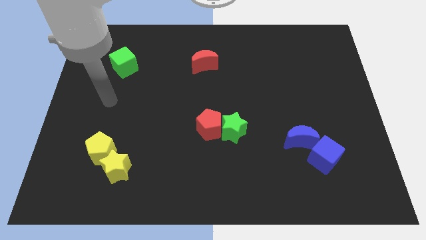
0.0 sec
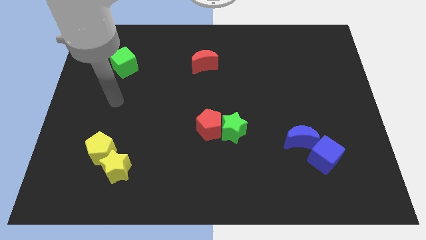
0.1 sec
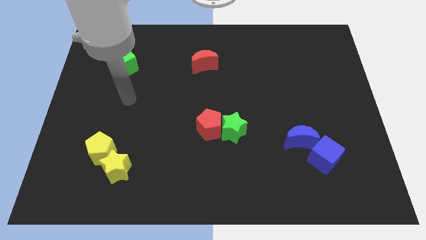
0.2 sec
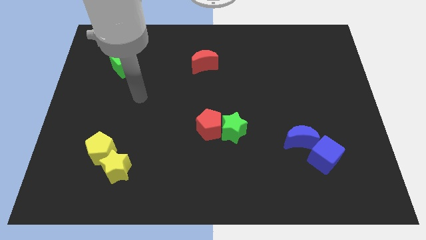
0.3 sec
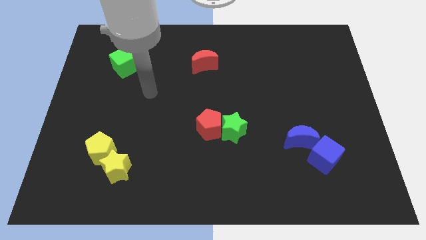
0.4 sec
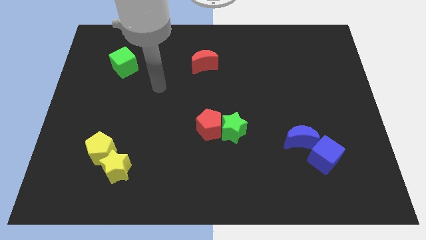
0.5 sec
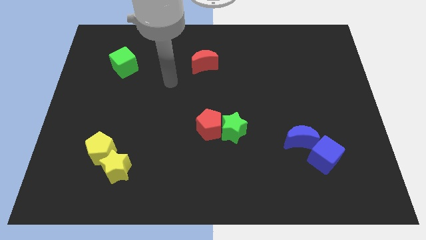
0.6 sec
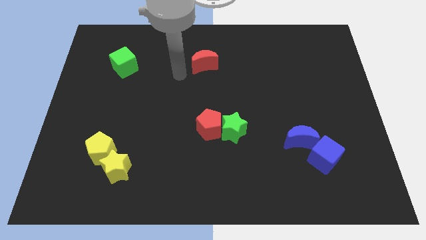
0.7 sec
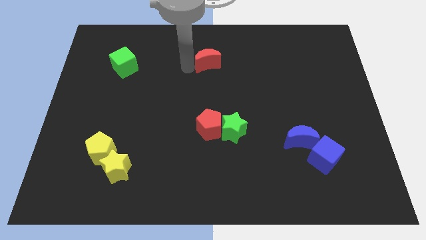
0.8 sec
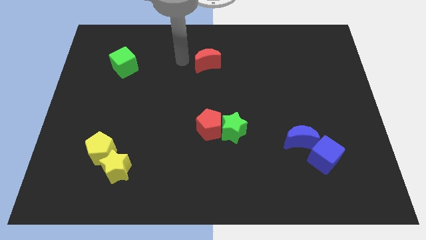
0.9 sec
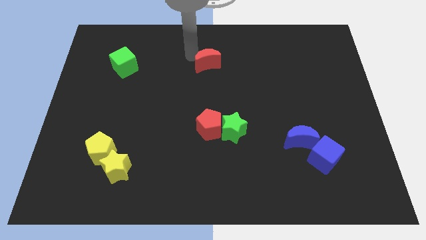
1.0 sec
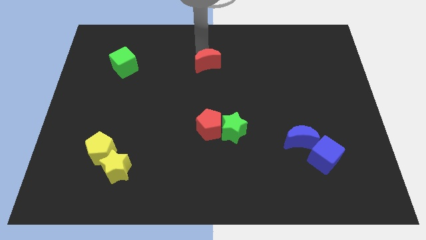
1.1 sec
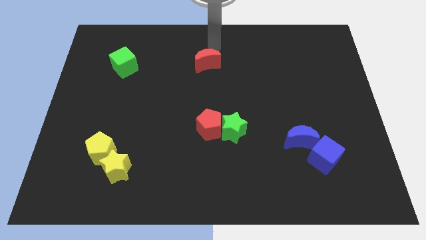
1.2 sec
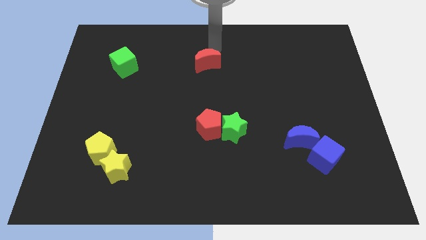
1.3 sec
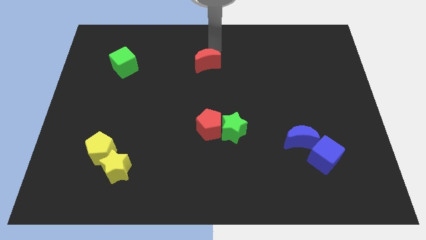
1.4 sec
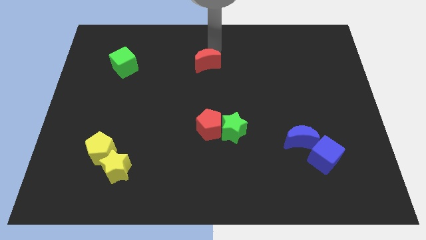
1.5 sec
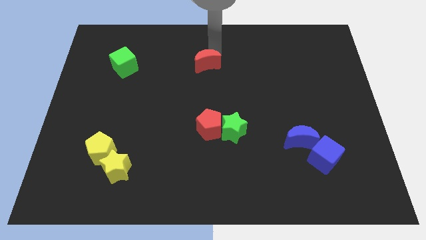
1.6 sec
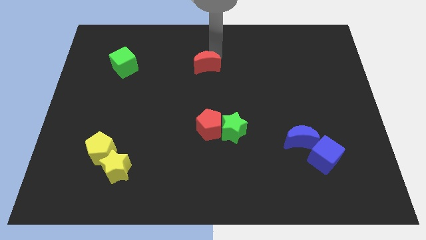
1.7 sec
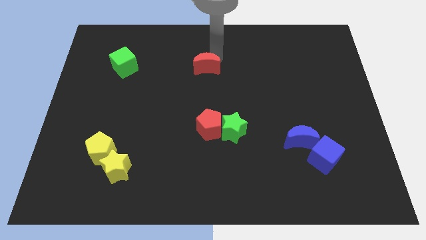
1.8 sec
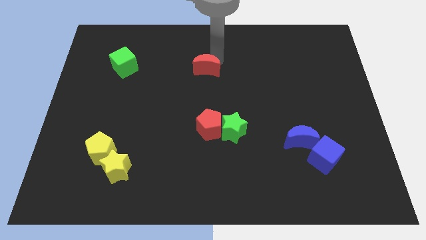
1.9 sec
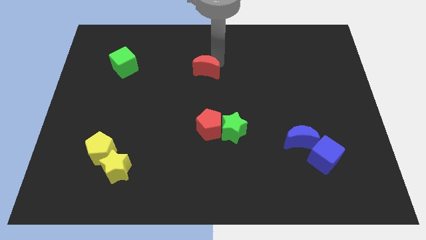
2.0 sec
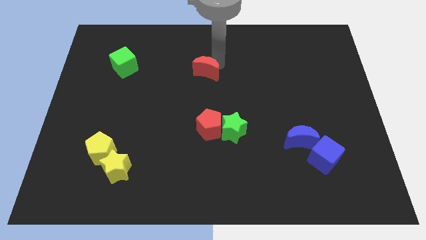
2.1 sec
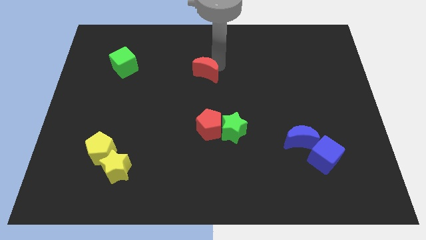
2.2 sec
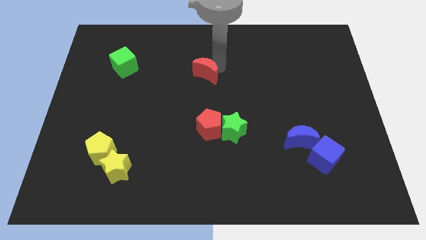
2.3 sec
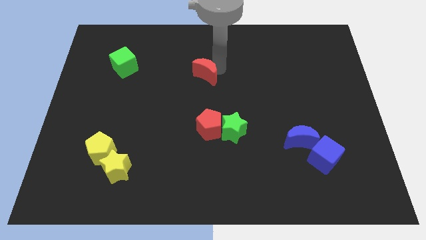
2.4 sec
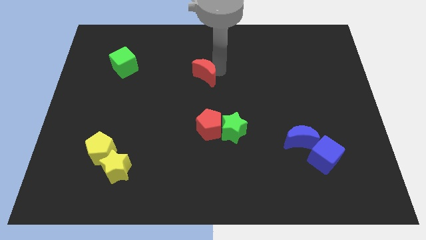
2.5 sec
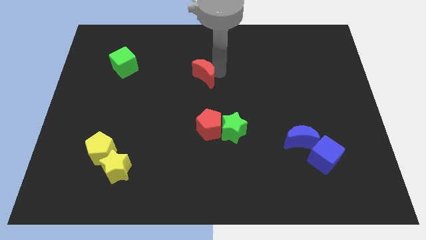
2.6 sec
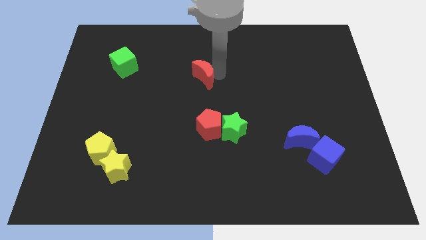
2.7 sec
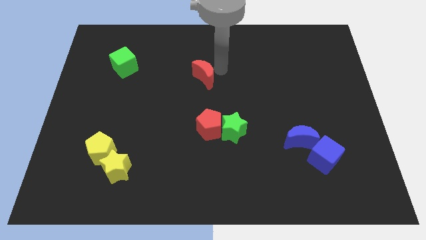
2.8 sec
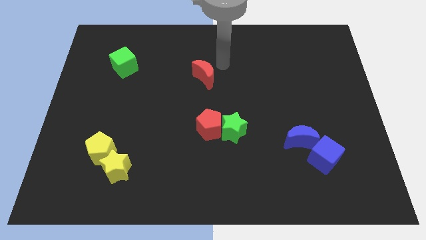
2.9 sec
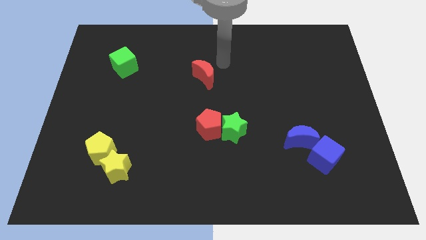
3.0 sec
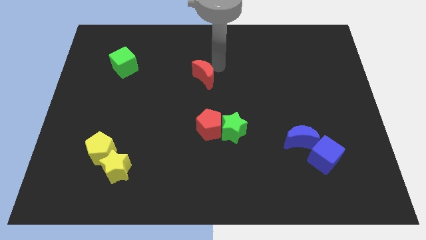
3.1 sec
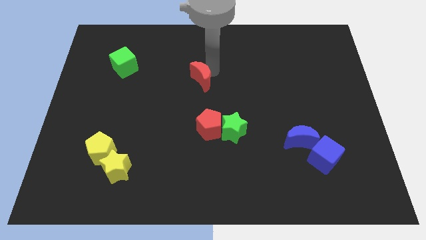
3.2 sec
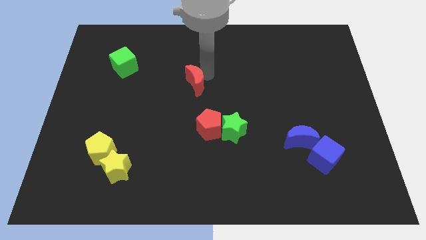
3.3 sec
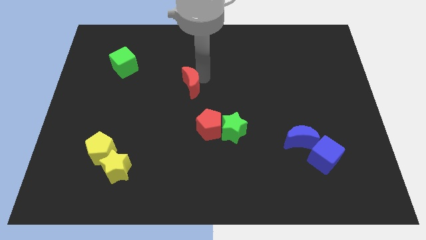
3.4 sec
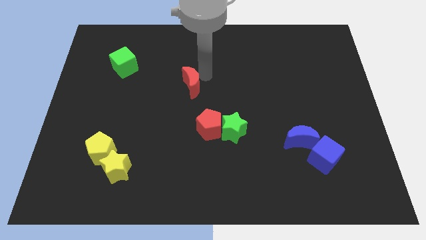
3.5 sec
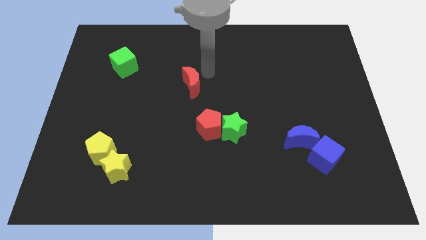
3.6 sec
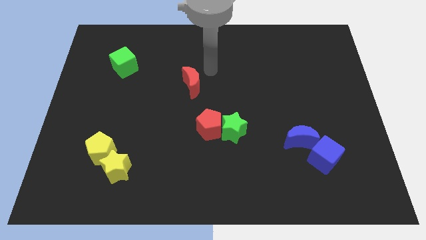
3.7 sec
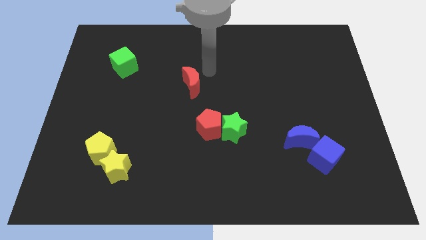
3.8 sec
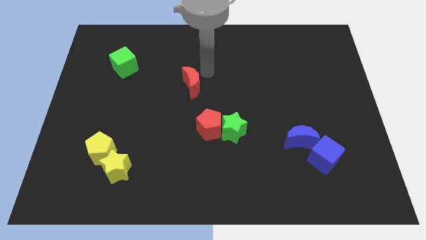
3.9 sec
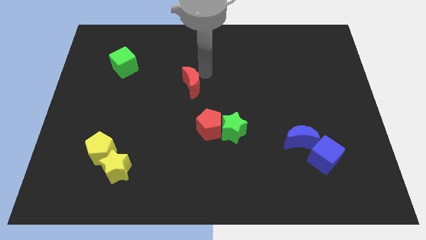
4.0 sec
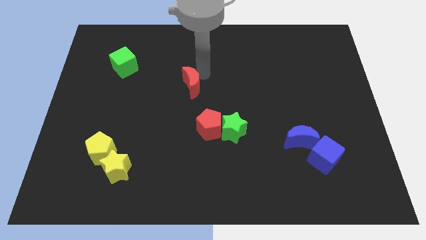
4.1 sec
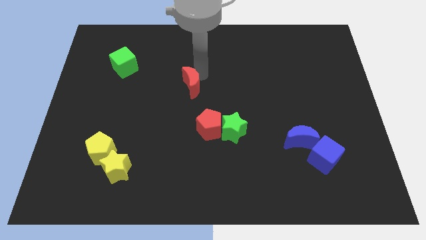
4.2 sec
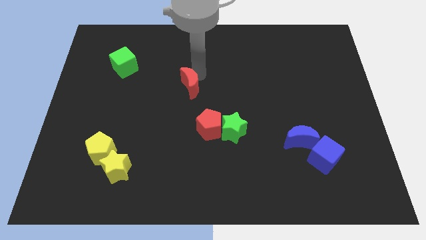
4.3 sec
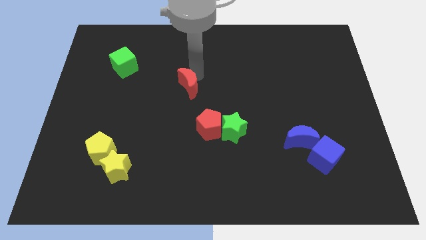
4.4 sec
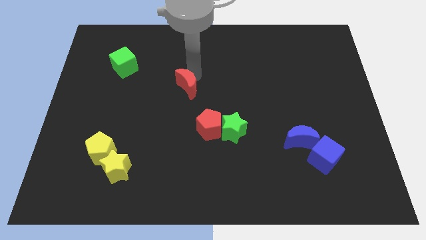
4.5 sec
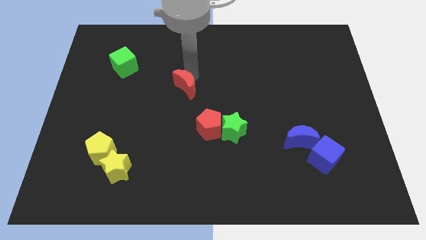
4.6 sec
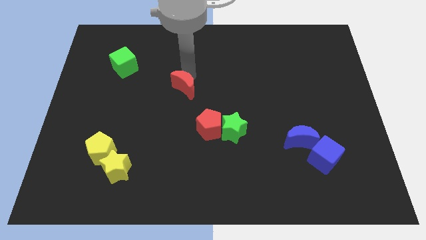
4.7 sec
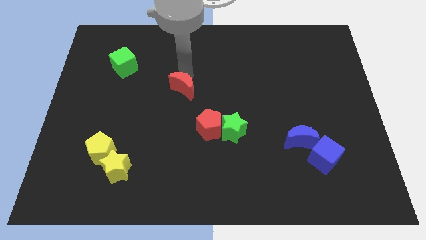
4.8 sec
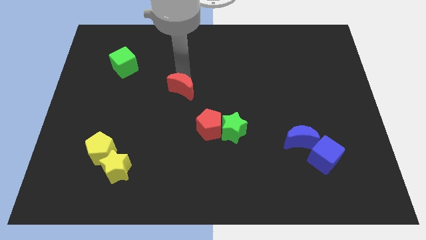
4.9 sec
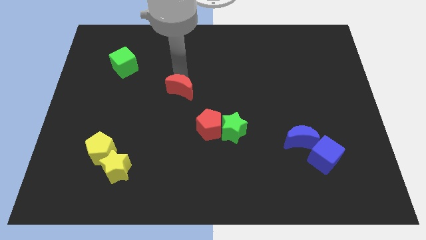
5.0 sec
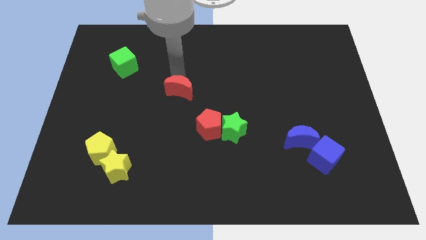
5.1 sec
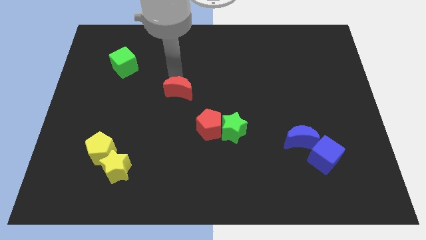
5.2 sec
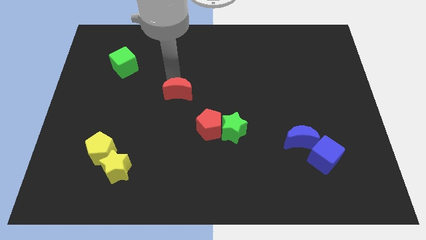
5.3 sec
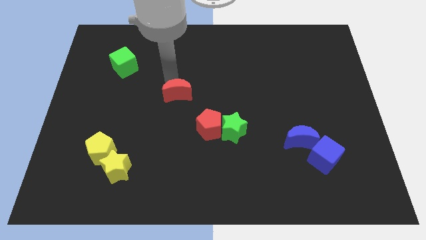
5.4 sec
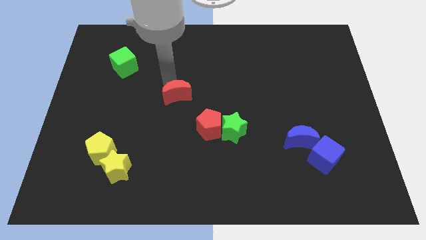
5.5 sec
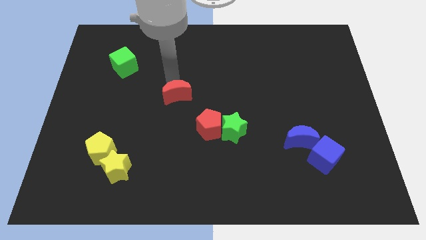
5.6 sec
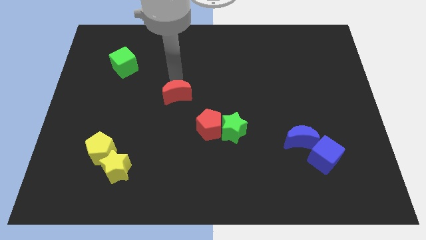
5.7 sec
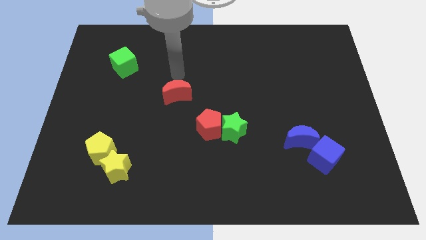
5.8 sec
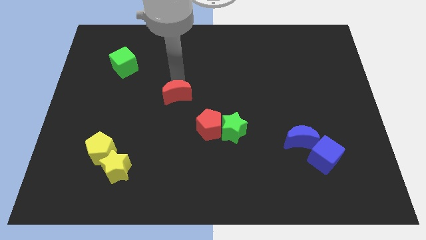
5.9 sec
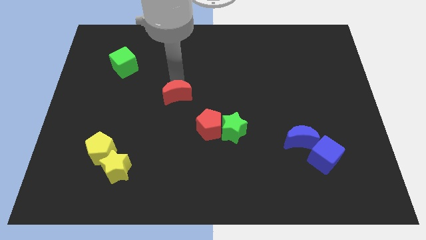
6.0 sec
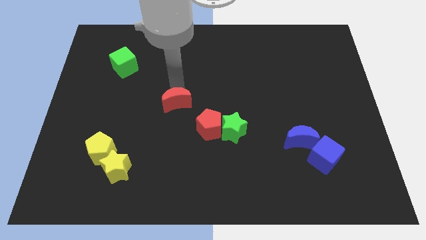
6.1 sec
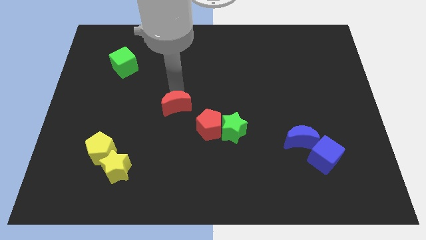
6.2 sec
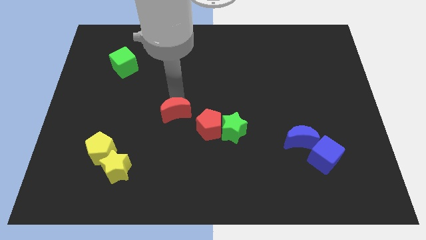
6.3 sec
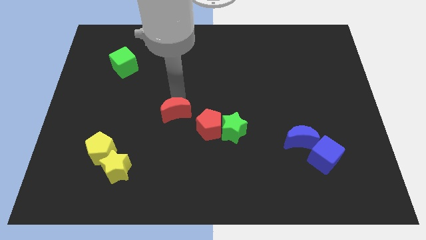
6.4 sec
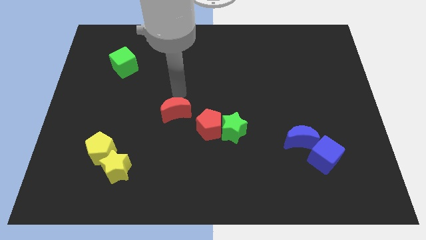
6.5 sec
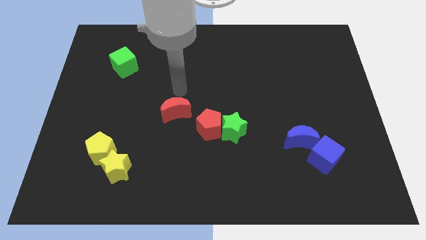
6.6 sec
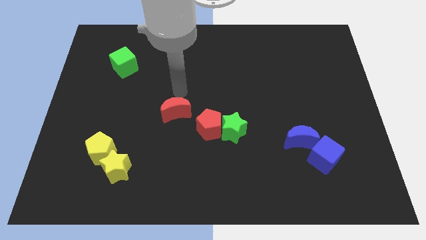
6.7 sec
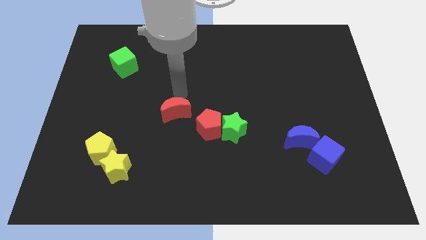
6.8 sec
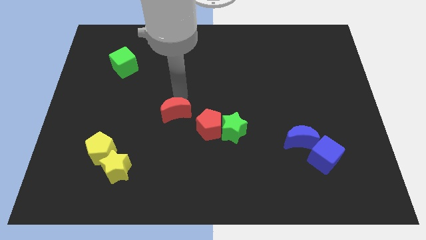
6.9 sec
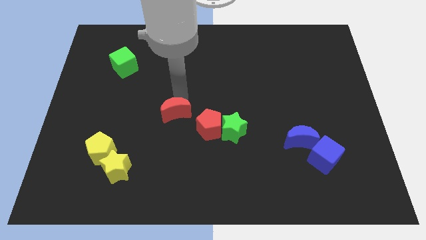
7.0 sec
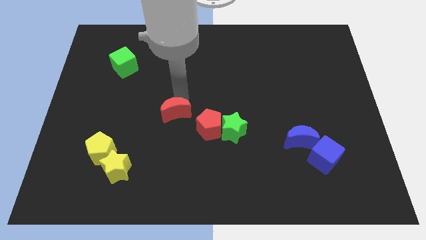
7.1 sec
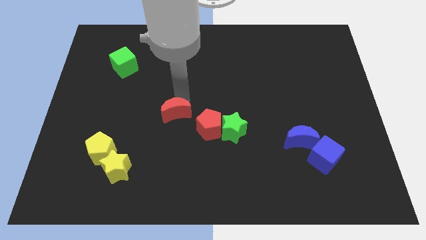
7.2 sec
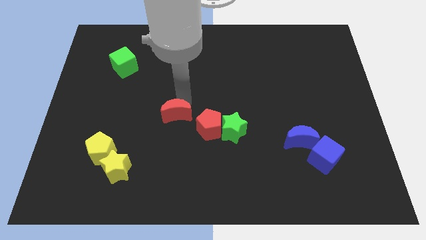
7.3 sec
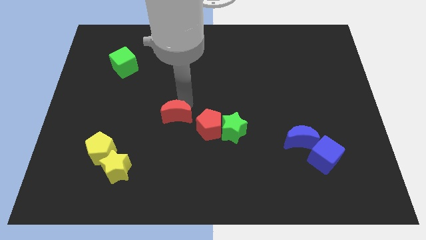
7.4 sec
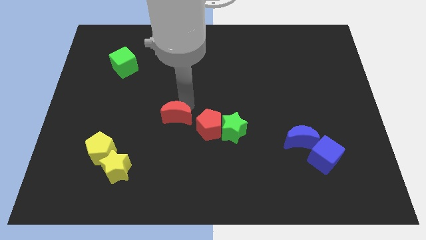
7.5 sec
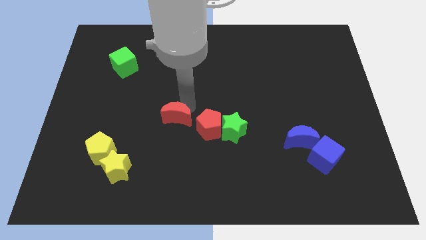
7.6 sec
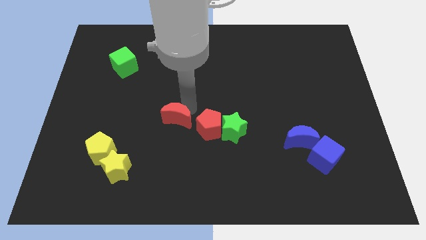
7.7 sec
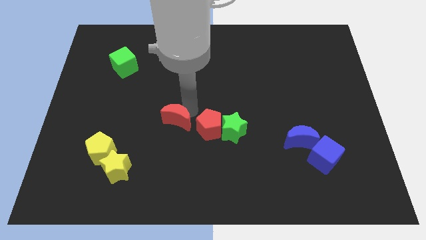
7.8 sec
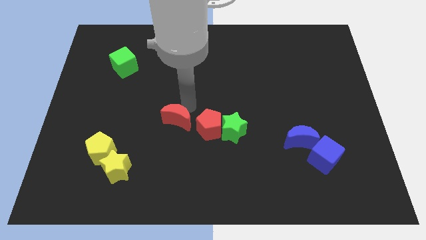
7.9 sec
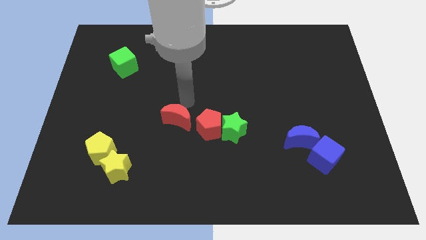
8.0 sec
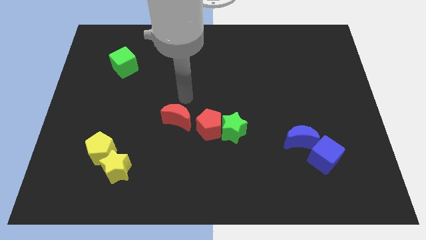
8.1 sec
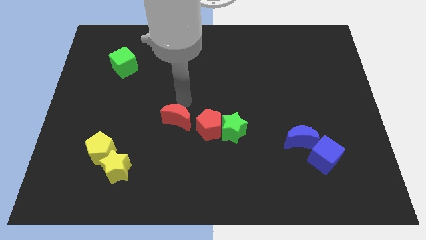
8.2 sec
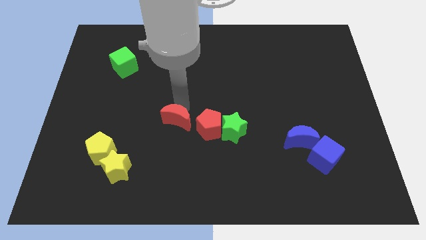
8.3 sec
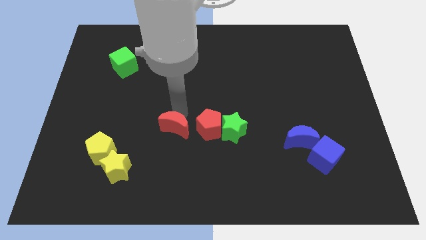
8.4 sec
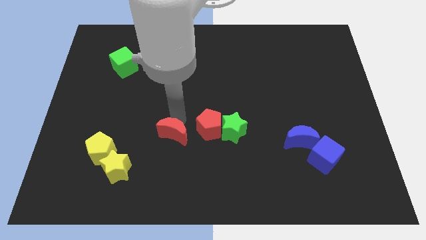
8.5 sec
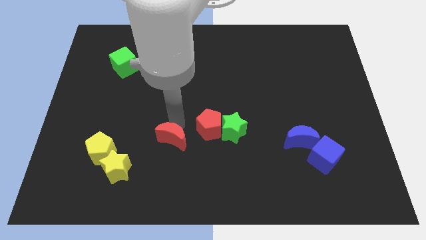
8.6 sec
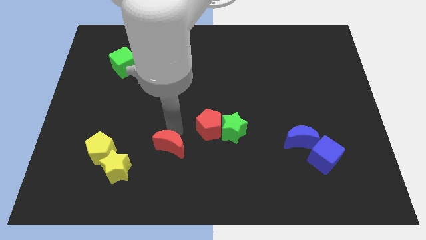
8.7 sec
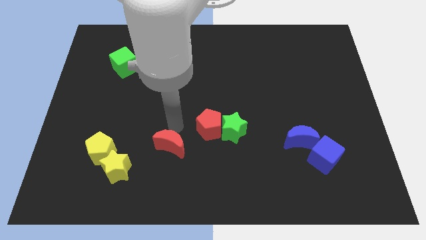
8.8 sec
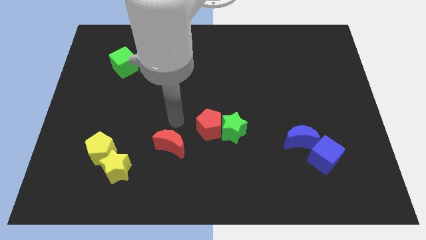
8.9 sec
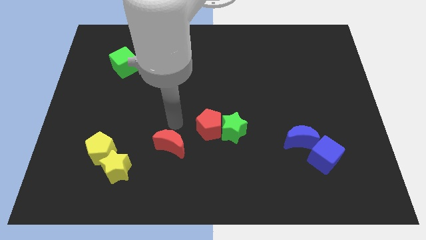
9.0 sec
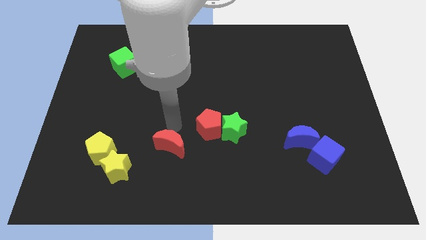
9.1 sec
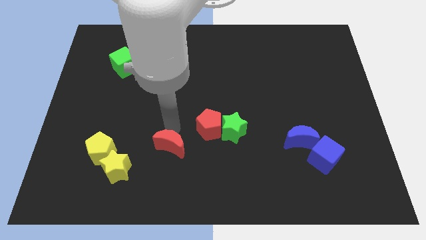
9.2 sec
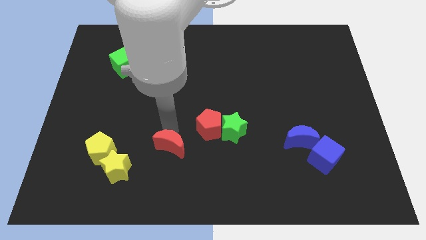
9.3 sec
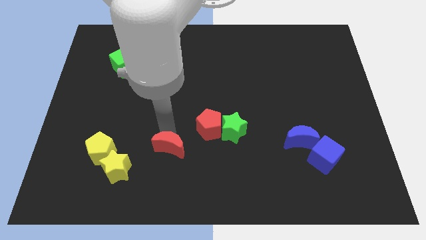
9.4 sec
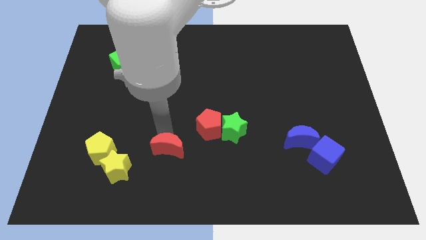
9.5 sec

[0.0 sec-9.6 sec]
move the red moon just right of the yellow star
